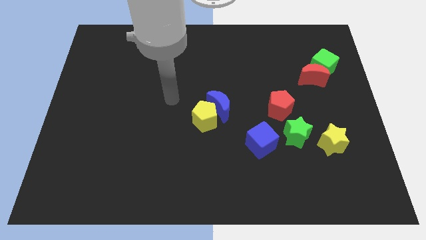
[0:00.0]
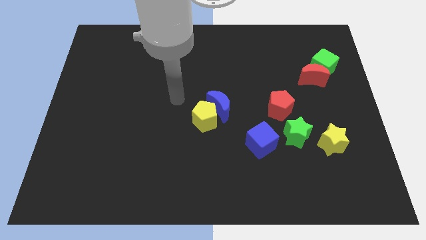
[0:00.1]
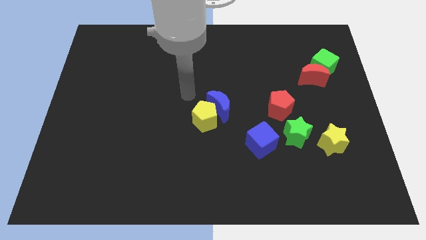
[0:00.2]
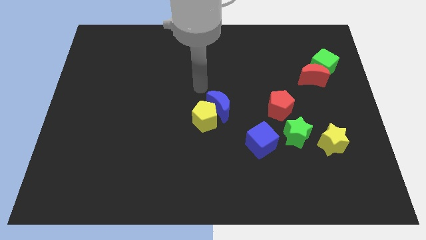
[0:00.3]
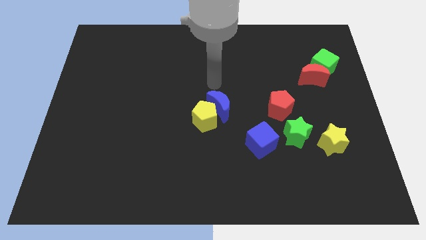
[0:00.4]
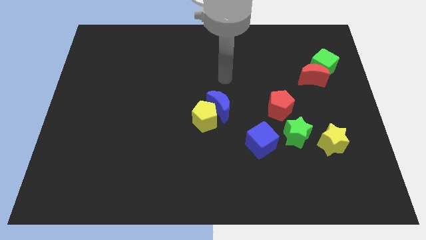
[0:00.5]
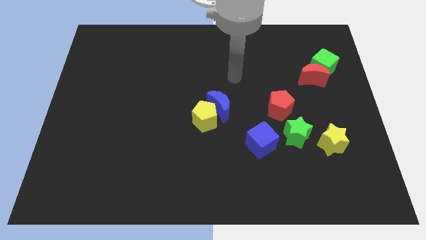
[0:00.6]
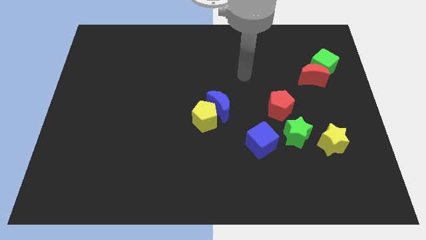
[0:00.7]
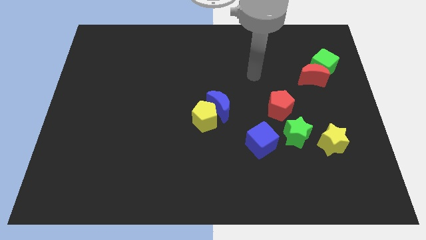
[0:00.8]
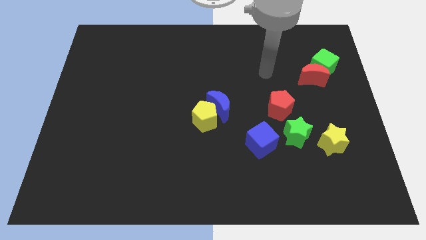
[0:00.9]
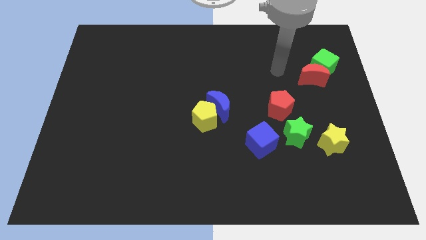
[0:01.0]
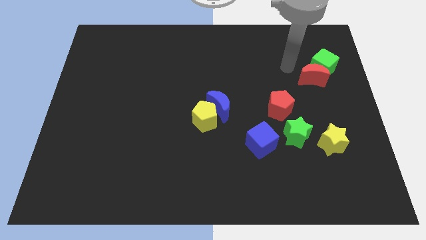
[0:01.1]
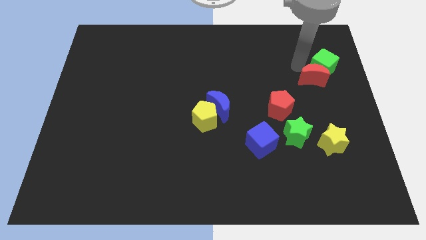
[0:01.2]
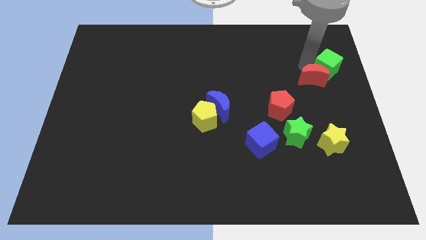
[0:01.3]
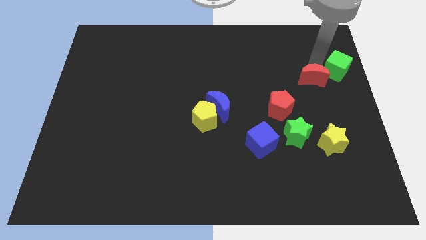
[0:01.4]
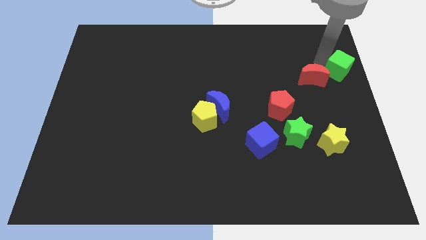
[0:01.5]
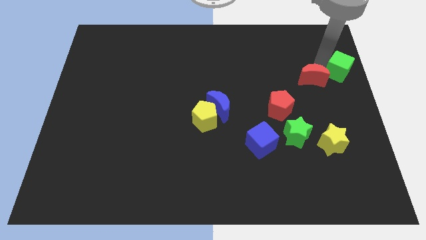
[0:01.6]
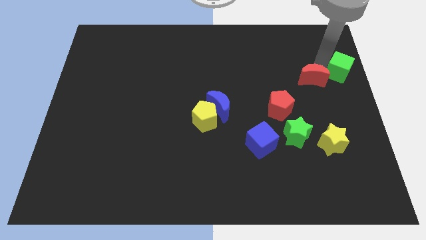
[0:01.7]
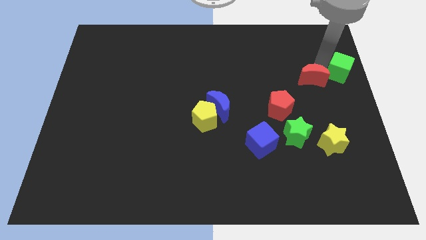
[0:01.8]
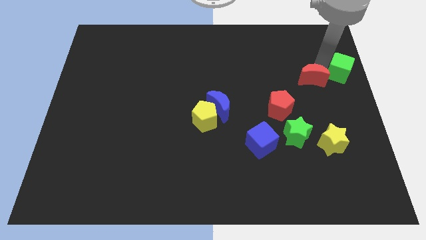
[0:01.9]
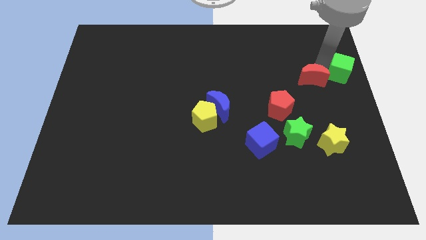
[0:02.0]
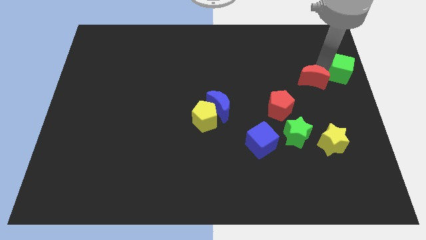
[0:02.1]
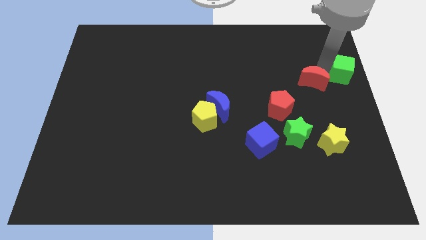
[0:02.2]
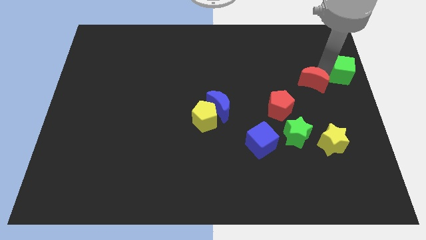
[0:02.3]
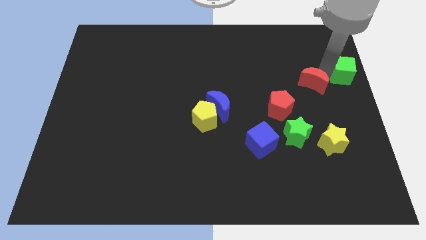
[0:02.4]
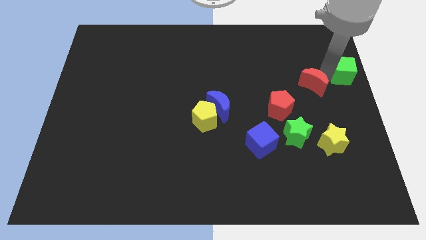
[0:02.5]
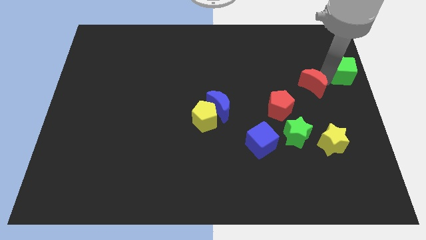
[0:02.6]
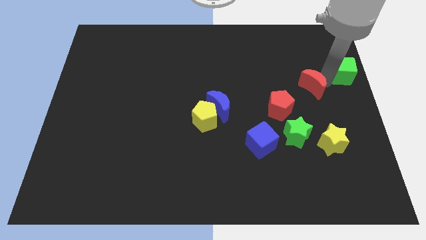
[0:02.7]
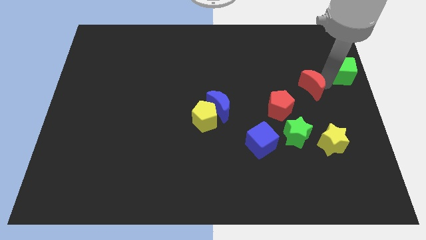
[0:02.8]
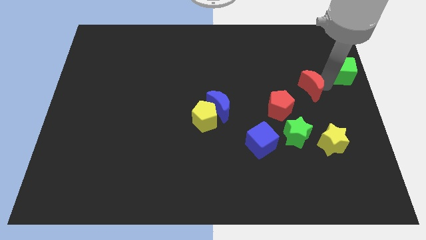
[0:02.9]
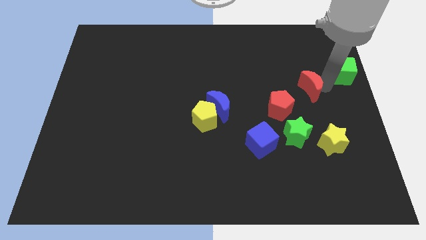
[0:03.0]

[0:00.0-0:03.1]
pull the red moon apart from the green cube

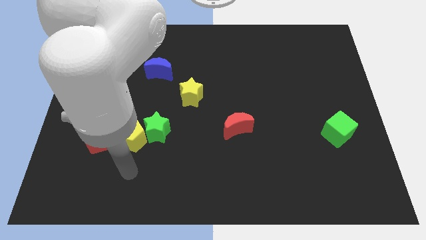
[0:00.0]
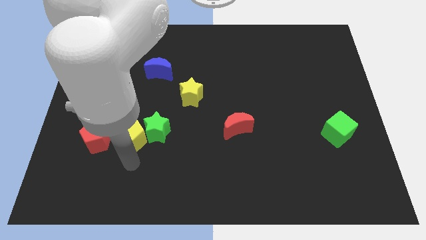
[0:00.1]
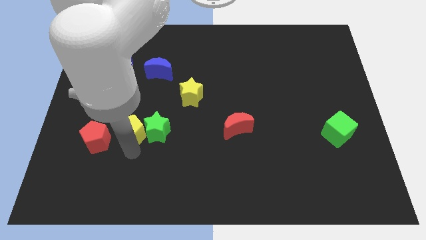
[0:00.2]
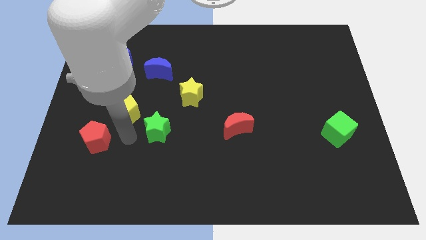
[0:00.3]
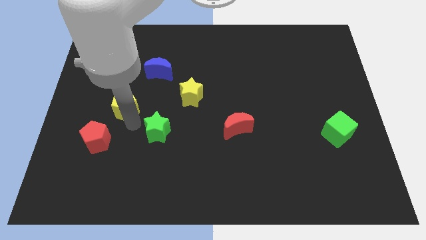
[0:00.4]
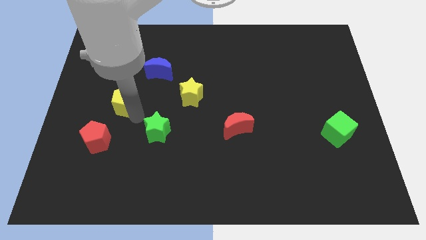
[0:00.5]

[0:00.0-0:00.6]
pull the green star apart from the yellow pentagon

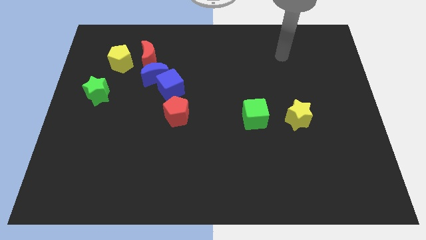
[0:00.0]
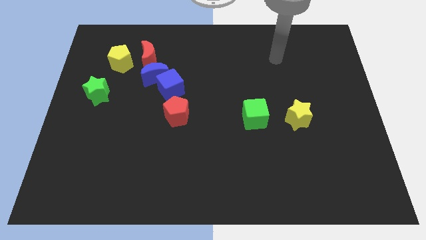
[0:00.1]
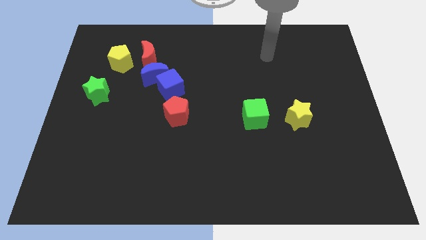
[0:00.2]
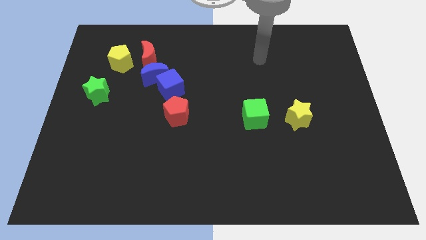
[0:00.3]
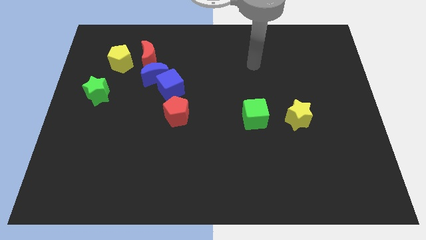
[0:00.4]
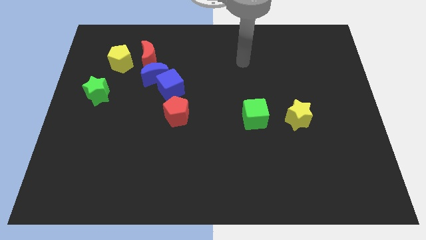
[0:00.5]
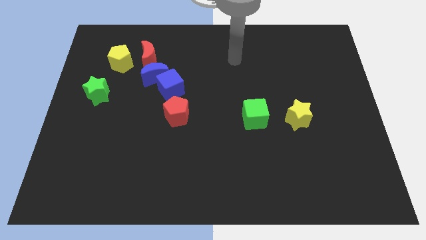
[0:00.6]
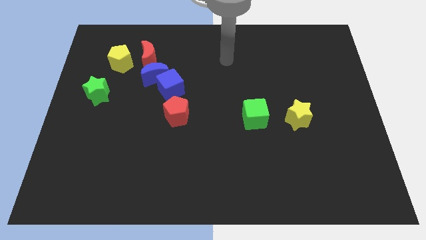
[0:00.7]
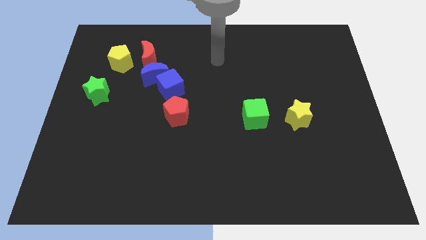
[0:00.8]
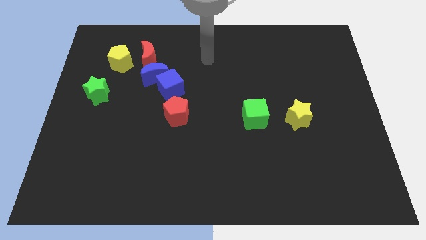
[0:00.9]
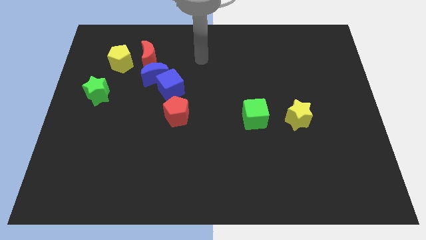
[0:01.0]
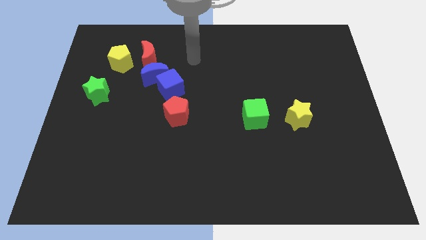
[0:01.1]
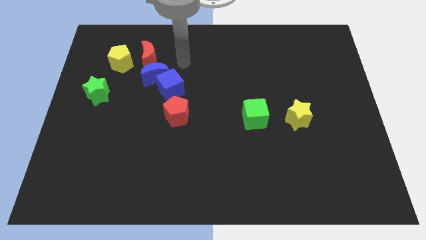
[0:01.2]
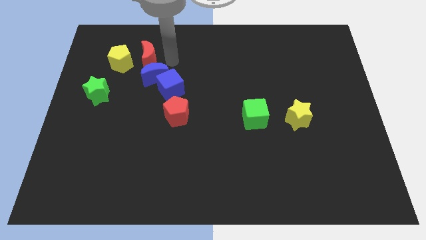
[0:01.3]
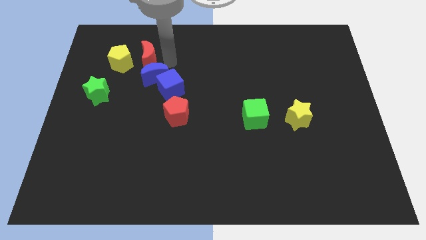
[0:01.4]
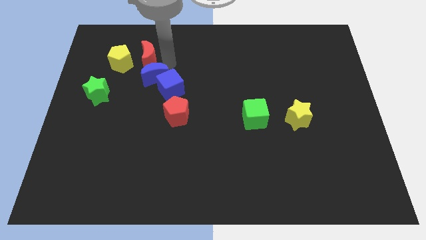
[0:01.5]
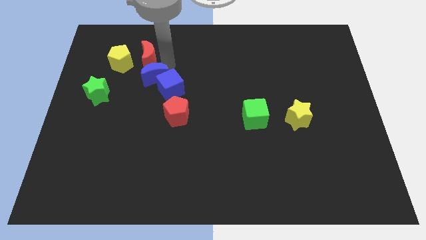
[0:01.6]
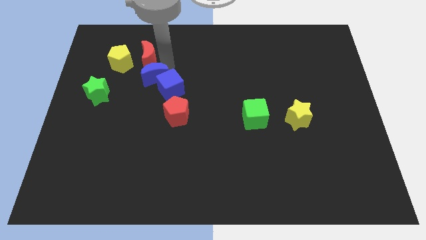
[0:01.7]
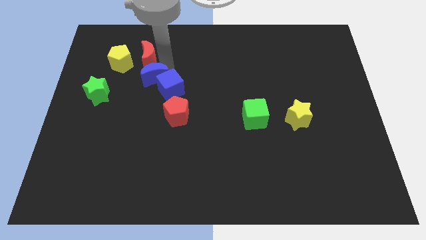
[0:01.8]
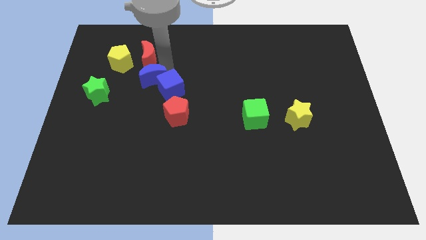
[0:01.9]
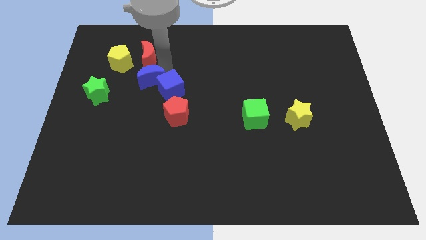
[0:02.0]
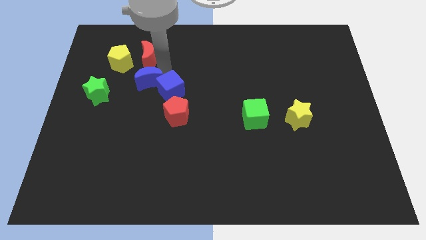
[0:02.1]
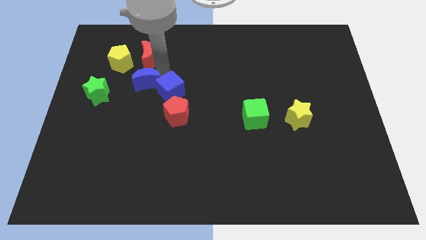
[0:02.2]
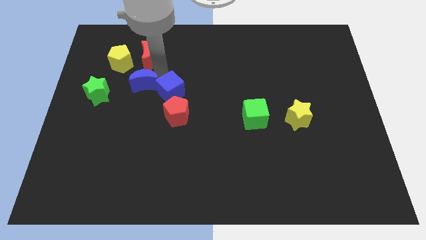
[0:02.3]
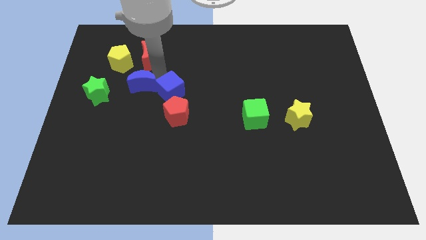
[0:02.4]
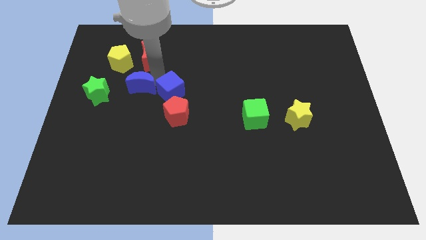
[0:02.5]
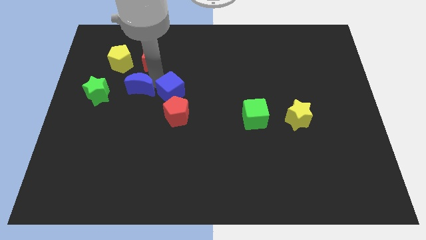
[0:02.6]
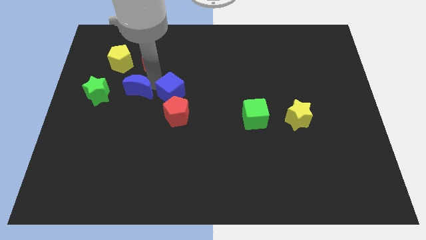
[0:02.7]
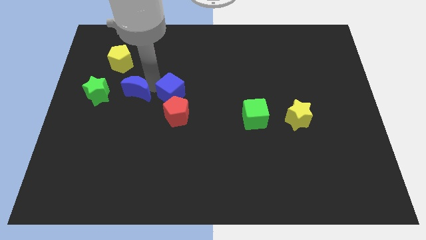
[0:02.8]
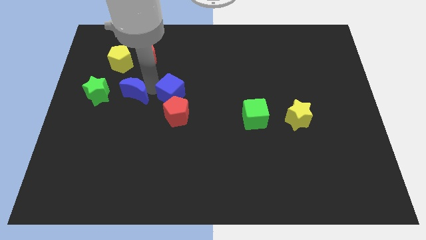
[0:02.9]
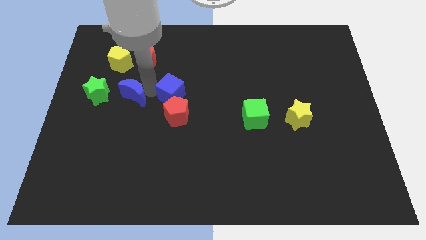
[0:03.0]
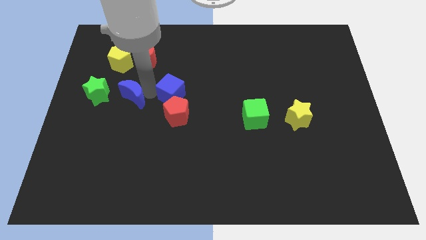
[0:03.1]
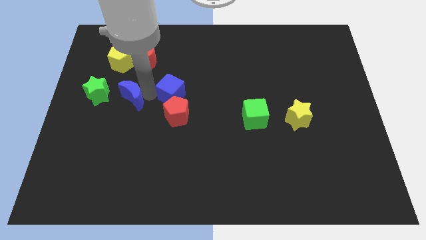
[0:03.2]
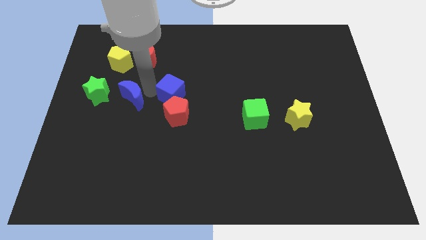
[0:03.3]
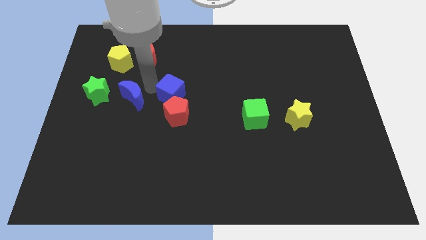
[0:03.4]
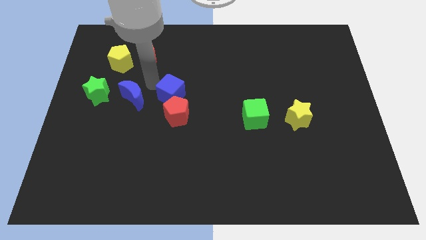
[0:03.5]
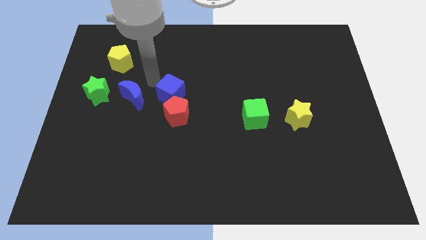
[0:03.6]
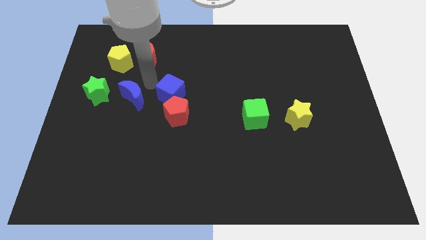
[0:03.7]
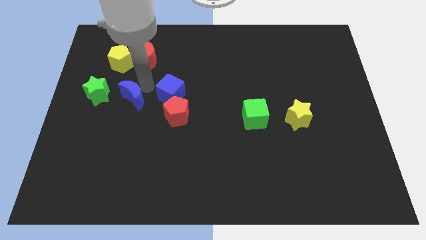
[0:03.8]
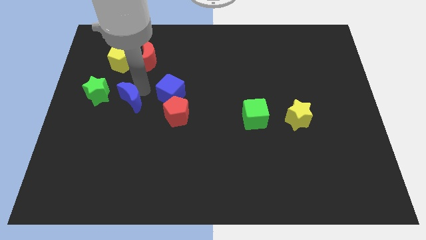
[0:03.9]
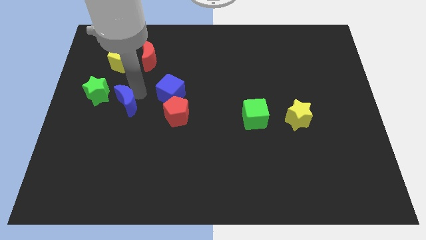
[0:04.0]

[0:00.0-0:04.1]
move the blue moon away from the blue cube and red moon

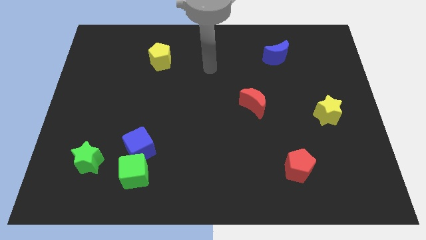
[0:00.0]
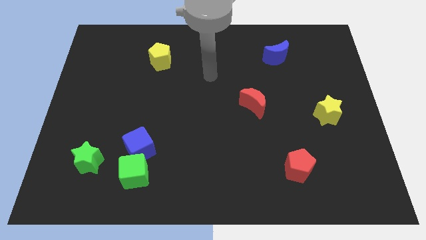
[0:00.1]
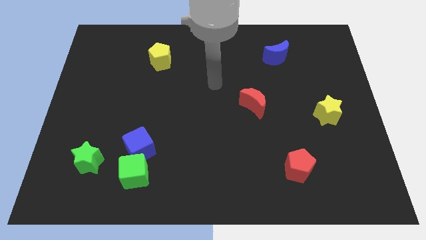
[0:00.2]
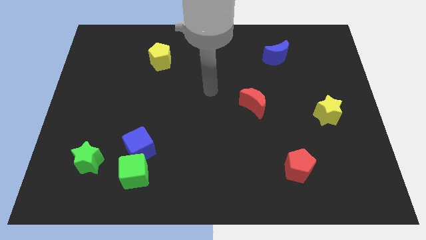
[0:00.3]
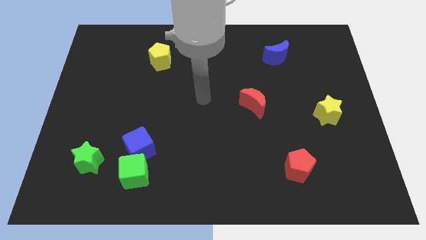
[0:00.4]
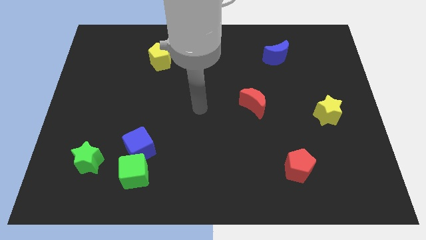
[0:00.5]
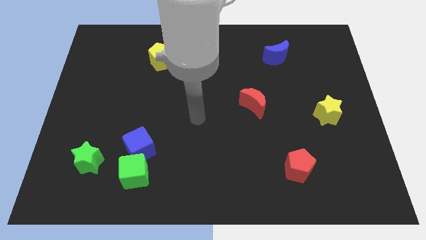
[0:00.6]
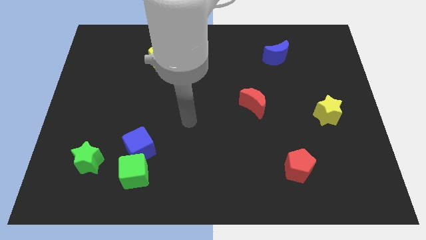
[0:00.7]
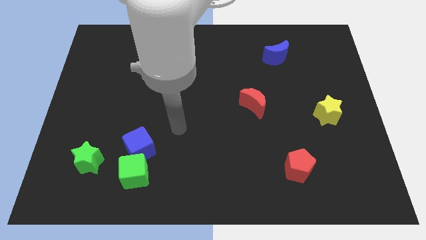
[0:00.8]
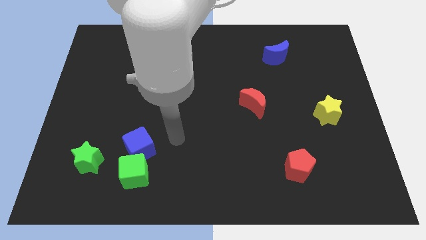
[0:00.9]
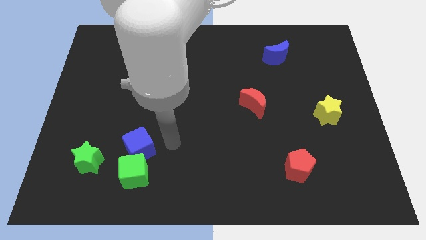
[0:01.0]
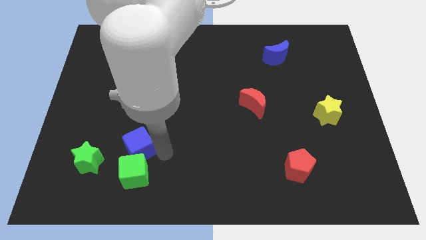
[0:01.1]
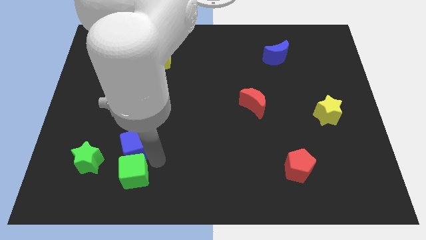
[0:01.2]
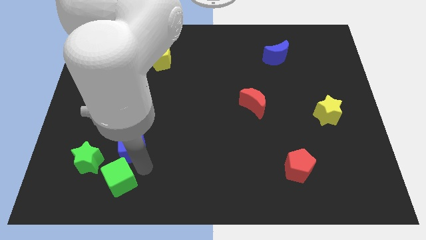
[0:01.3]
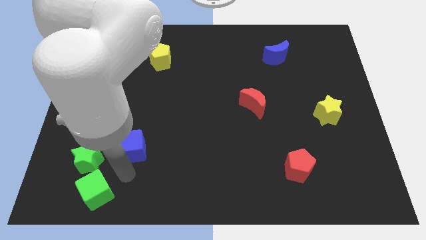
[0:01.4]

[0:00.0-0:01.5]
pull the blue cube apart from the green cube

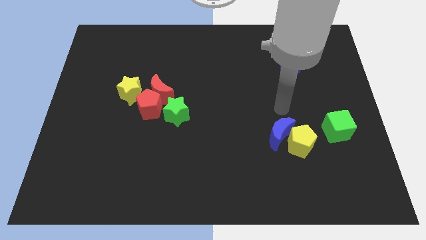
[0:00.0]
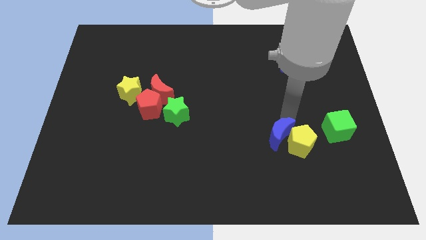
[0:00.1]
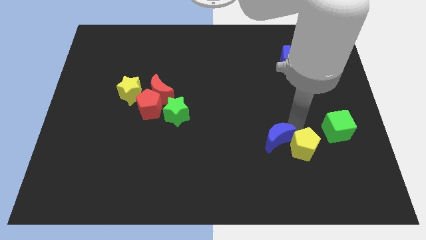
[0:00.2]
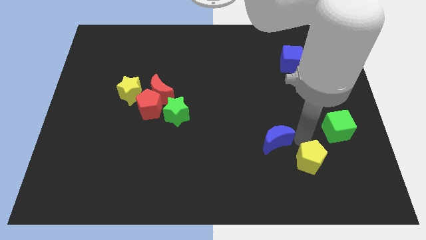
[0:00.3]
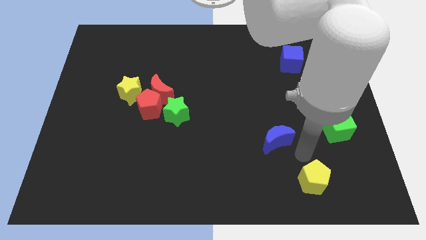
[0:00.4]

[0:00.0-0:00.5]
move the blue moon away from the yellow pentagon
